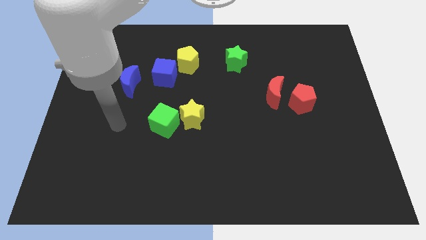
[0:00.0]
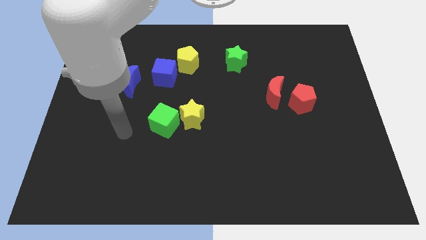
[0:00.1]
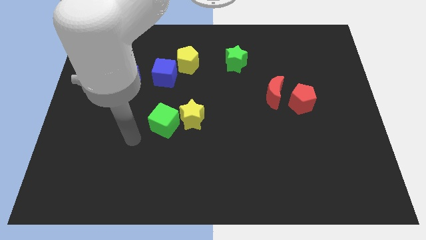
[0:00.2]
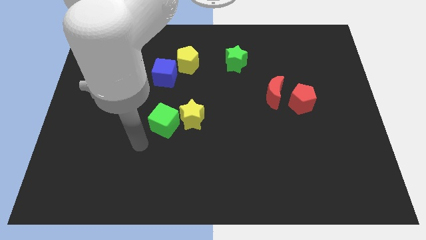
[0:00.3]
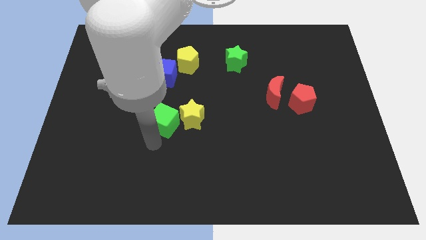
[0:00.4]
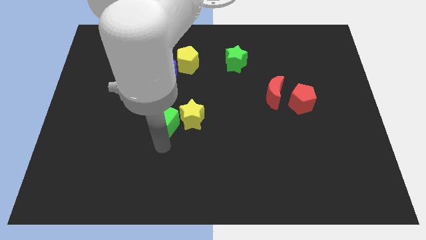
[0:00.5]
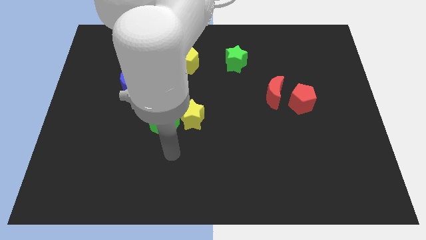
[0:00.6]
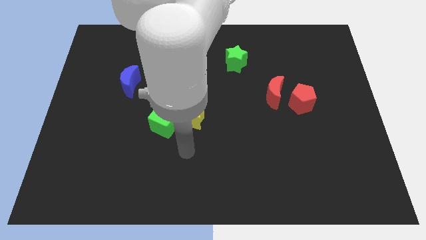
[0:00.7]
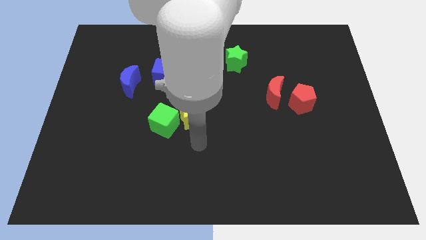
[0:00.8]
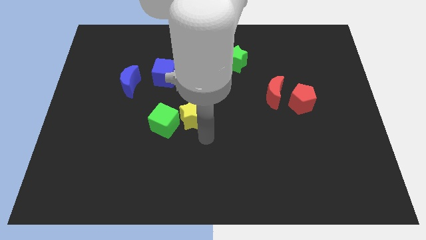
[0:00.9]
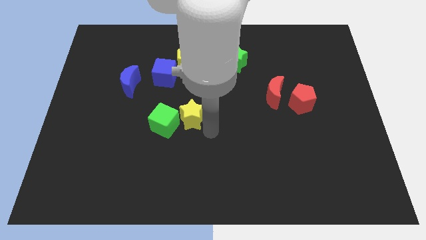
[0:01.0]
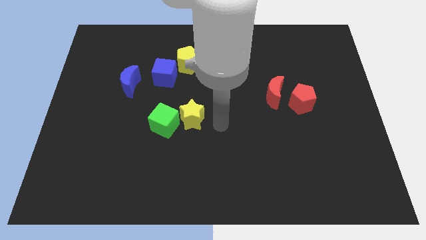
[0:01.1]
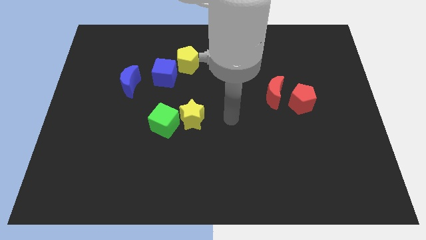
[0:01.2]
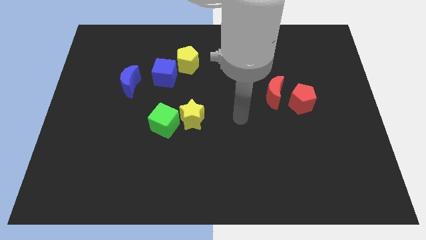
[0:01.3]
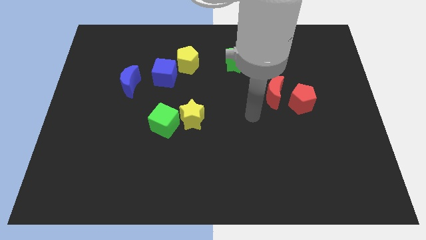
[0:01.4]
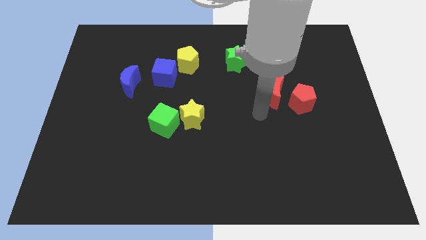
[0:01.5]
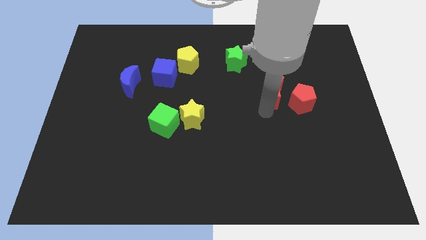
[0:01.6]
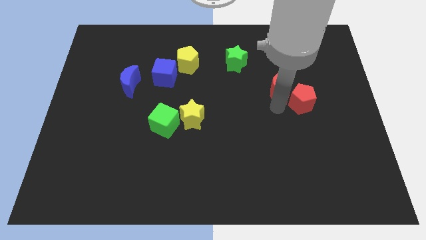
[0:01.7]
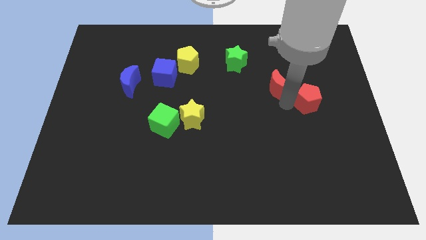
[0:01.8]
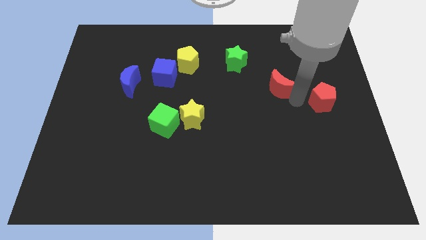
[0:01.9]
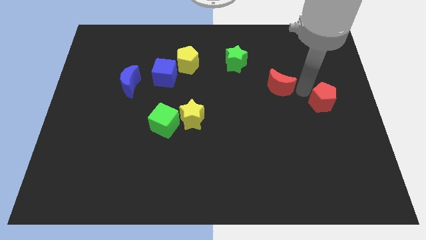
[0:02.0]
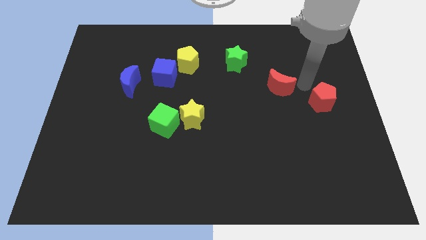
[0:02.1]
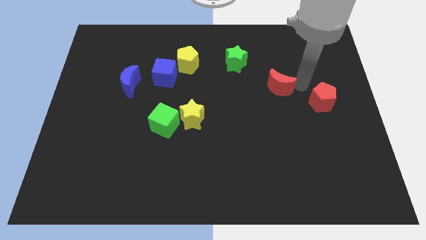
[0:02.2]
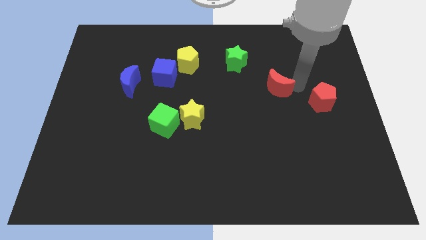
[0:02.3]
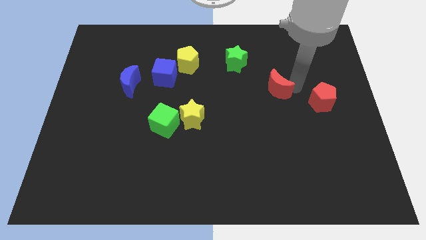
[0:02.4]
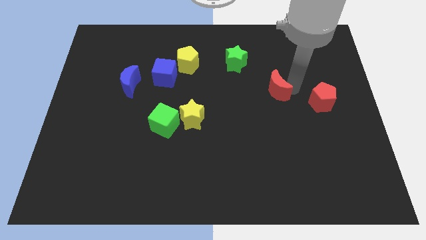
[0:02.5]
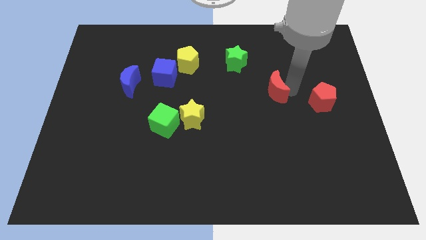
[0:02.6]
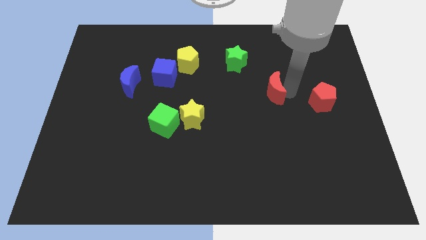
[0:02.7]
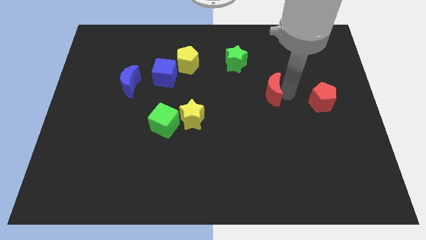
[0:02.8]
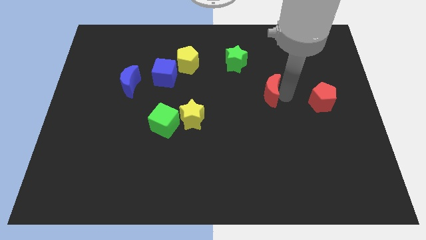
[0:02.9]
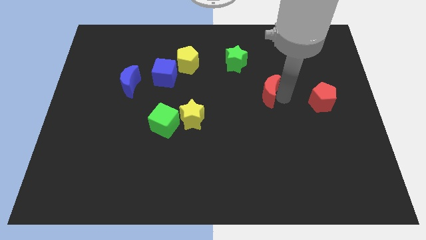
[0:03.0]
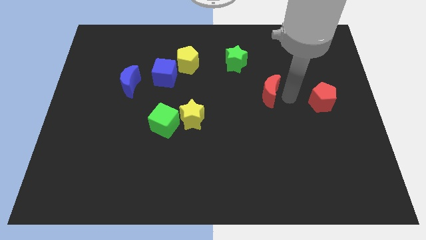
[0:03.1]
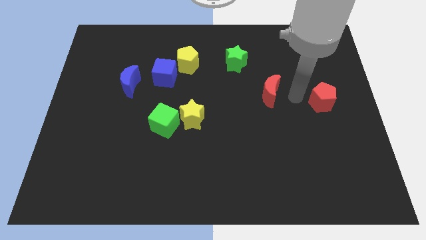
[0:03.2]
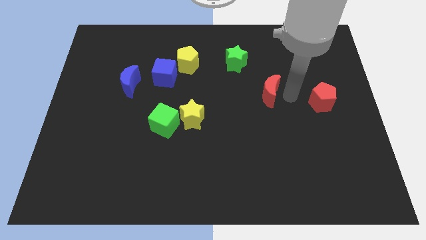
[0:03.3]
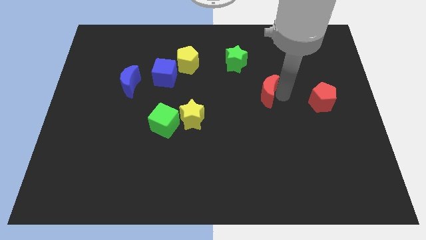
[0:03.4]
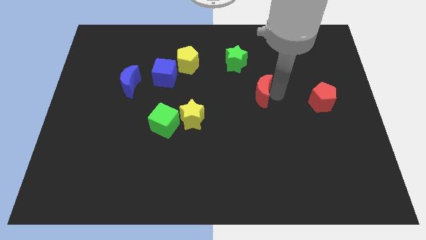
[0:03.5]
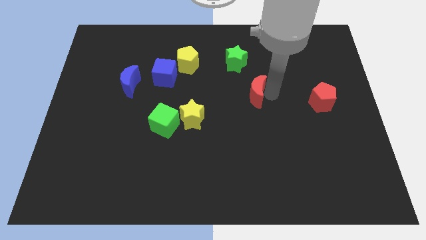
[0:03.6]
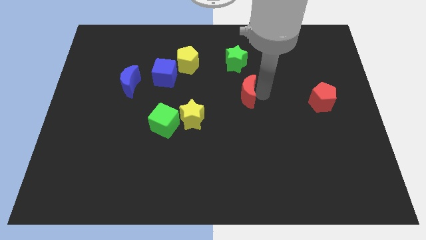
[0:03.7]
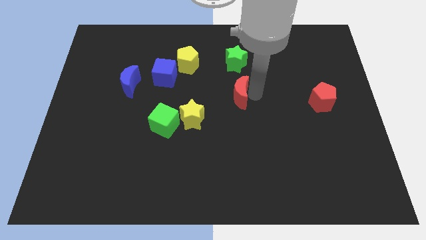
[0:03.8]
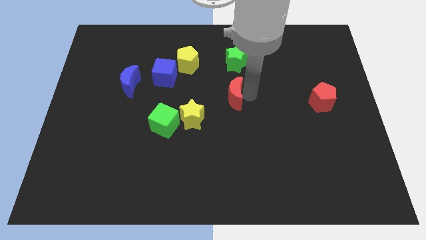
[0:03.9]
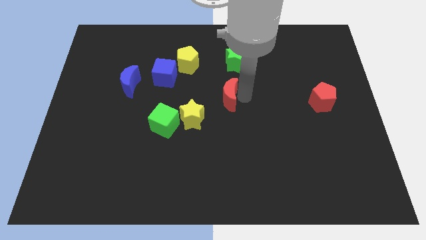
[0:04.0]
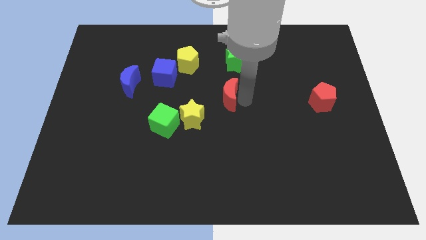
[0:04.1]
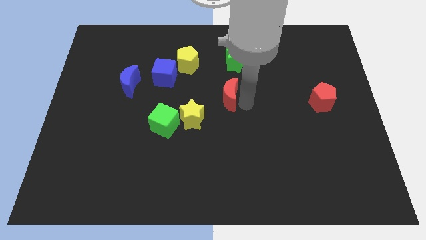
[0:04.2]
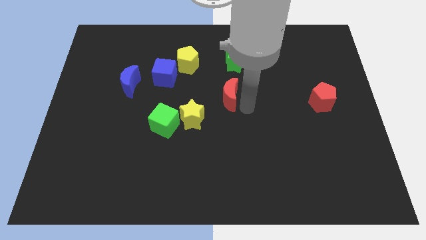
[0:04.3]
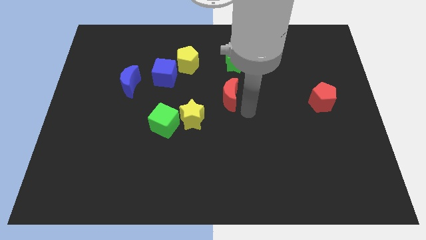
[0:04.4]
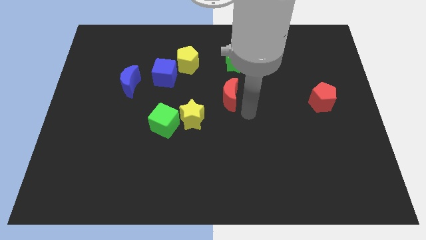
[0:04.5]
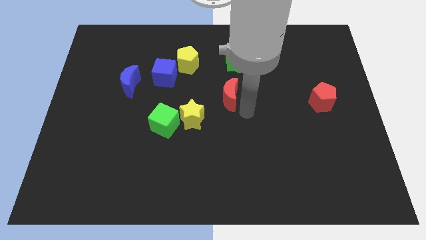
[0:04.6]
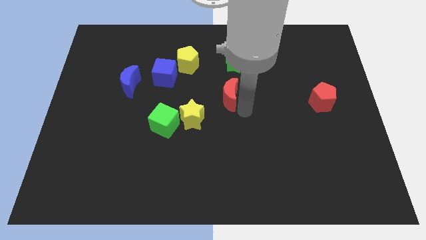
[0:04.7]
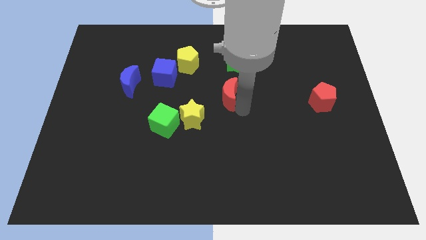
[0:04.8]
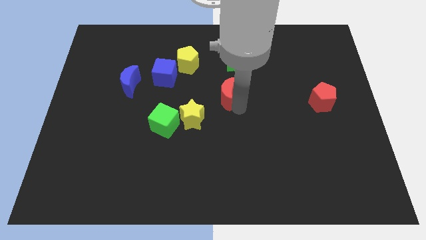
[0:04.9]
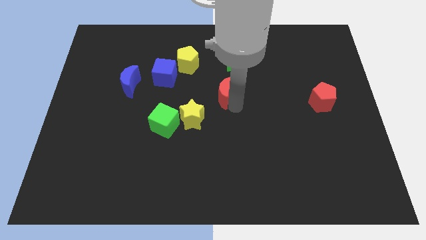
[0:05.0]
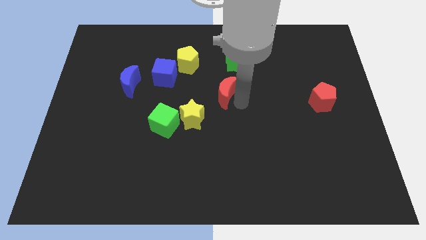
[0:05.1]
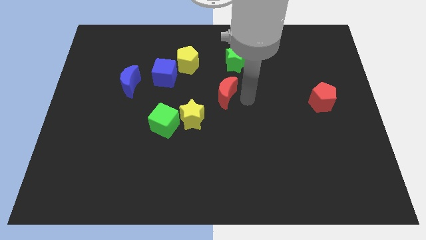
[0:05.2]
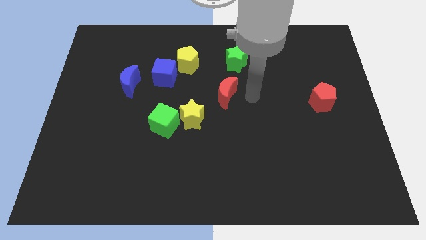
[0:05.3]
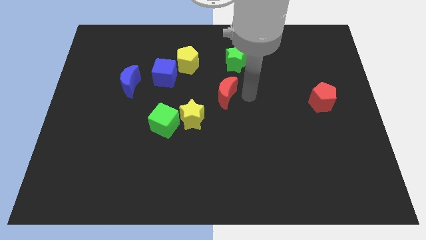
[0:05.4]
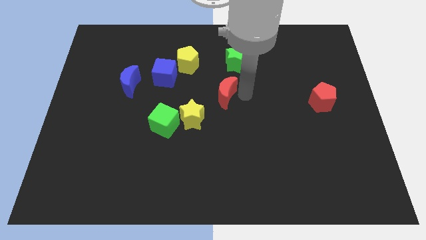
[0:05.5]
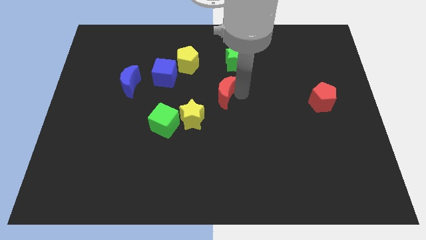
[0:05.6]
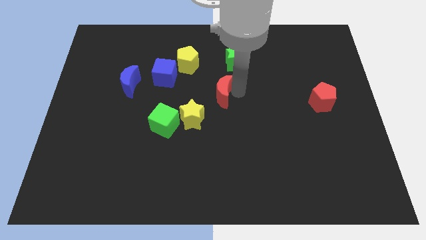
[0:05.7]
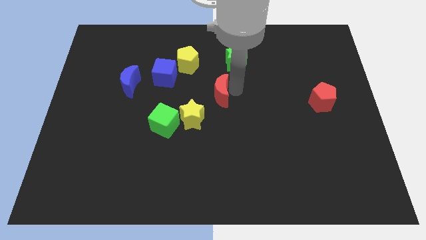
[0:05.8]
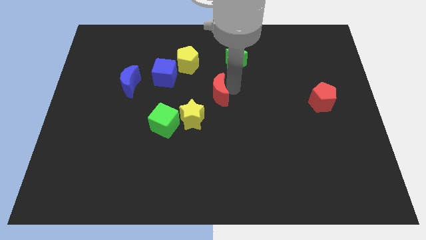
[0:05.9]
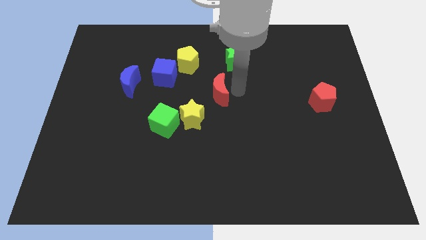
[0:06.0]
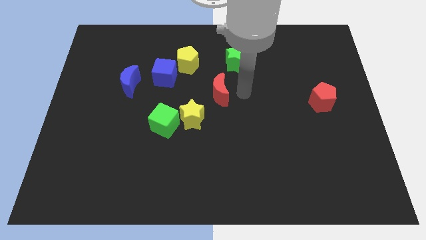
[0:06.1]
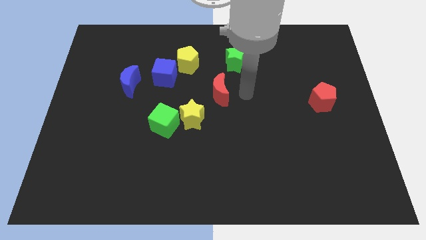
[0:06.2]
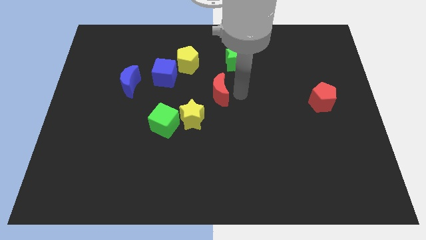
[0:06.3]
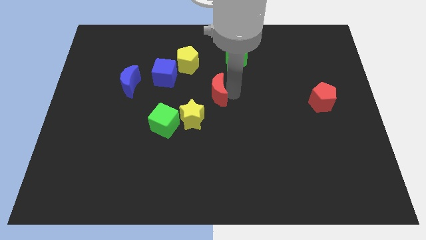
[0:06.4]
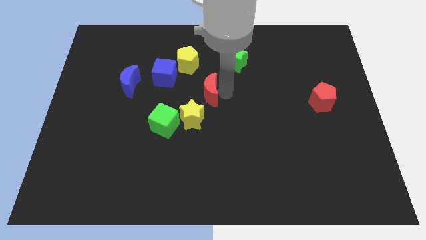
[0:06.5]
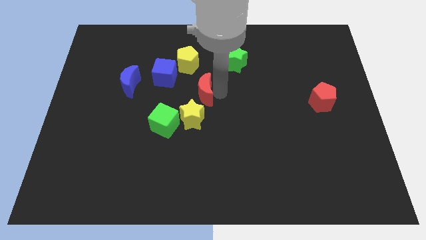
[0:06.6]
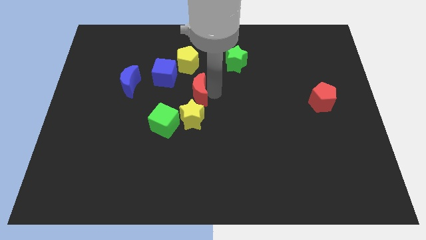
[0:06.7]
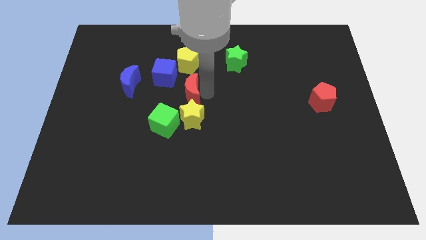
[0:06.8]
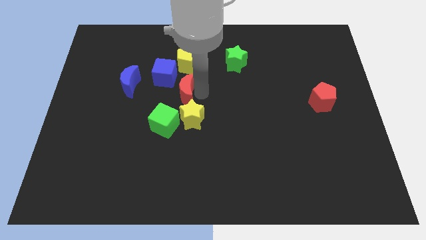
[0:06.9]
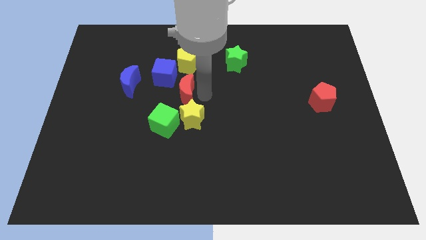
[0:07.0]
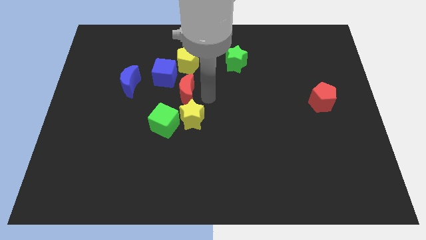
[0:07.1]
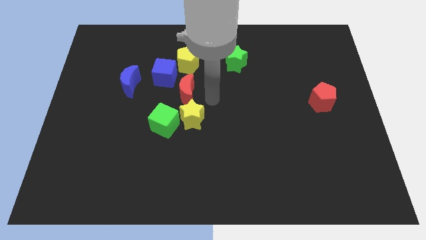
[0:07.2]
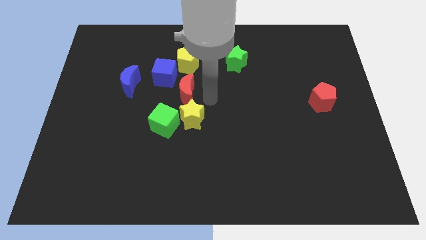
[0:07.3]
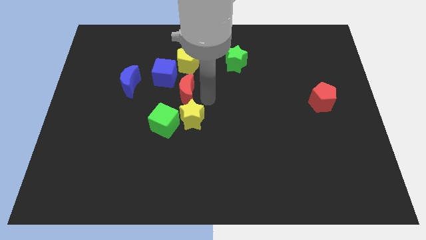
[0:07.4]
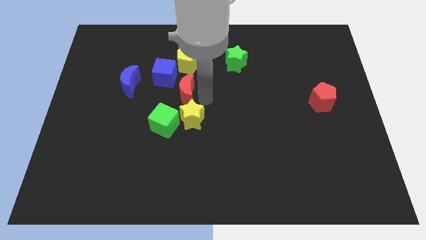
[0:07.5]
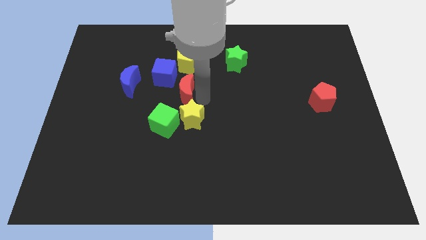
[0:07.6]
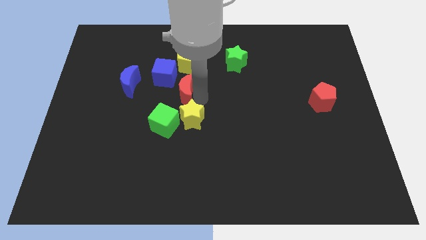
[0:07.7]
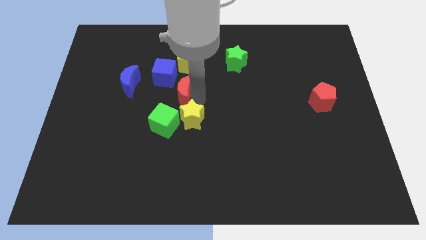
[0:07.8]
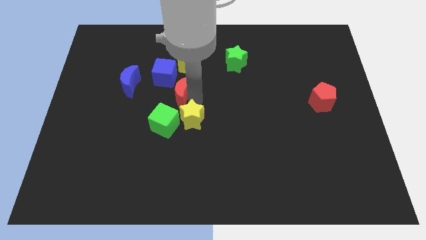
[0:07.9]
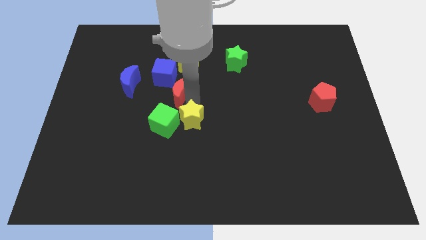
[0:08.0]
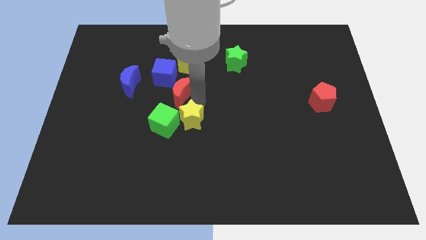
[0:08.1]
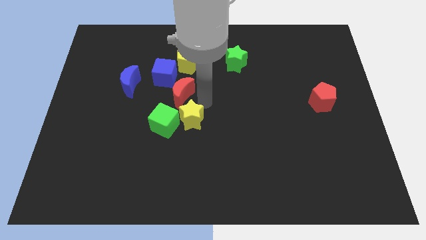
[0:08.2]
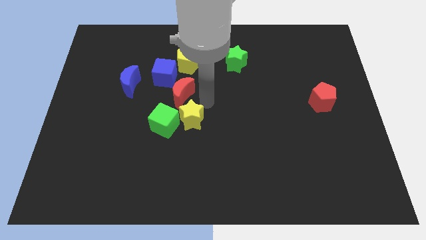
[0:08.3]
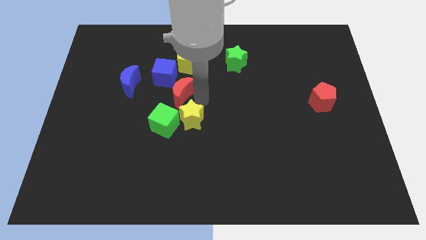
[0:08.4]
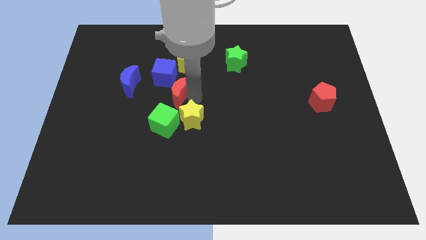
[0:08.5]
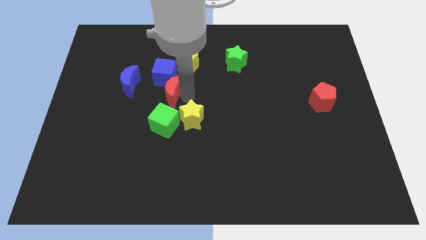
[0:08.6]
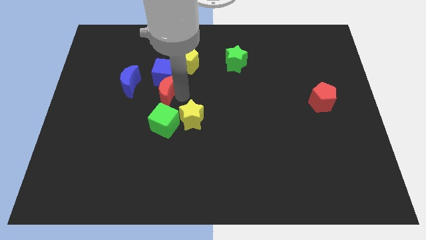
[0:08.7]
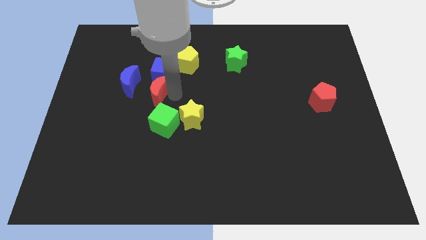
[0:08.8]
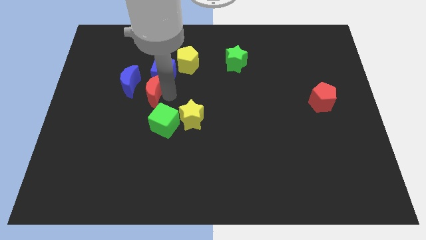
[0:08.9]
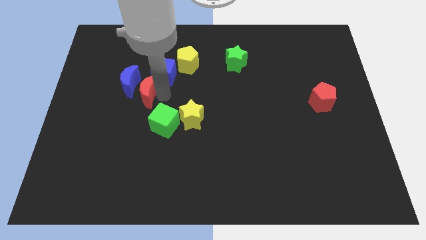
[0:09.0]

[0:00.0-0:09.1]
move the red moon close to the blue moon
